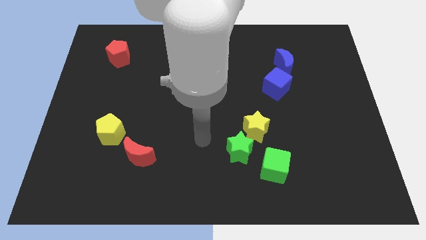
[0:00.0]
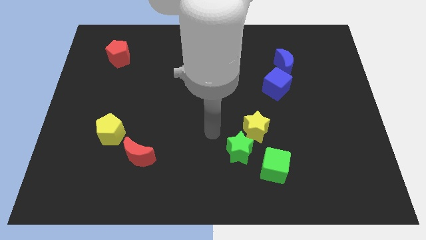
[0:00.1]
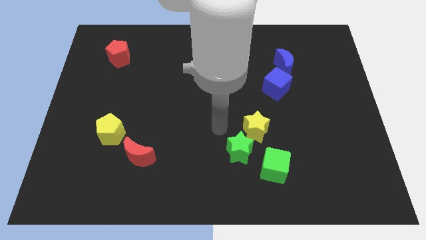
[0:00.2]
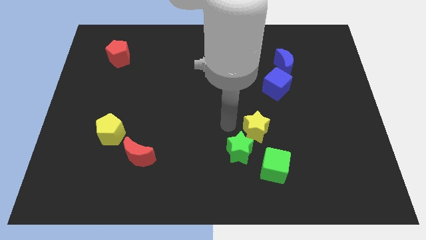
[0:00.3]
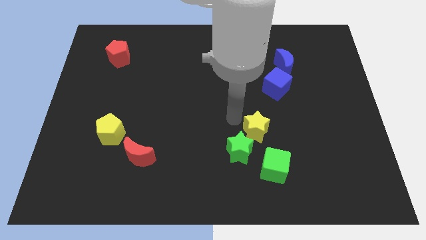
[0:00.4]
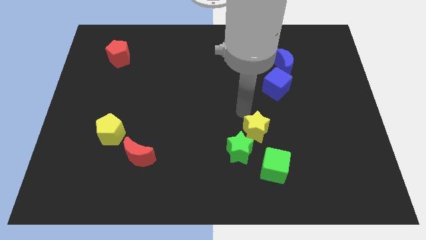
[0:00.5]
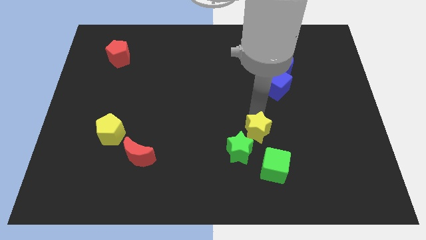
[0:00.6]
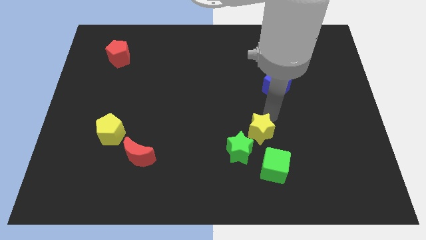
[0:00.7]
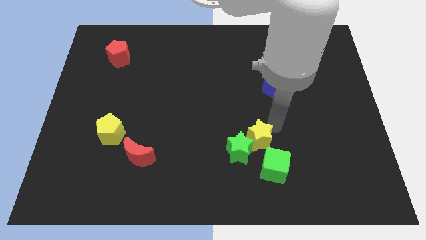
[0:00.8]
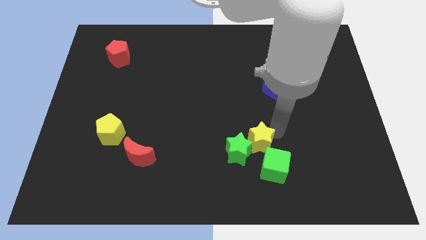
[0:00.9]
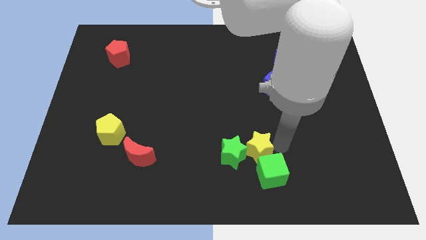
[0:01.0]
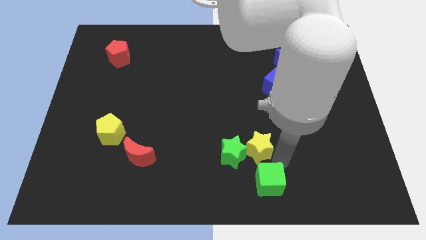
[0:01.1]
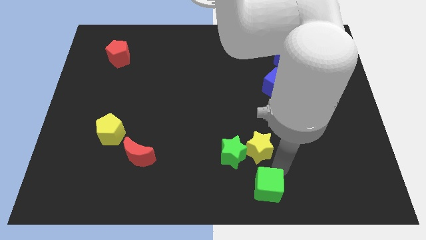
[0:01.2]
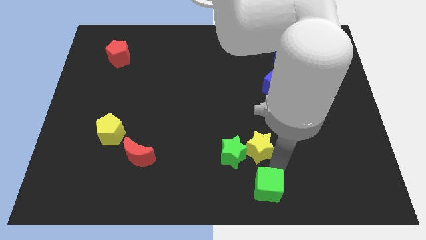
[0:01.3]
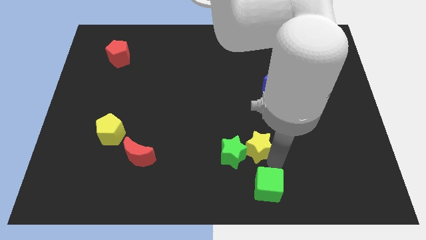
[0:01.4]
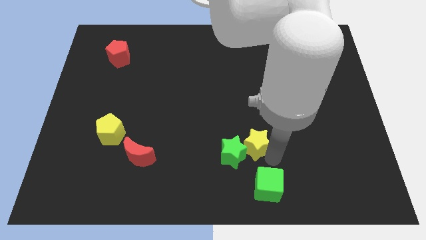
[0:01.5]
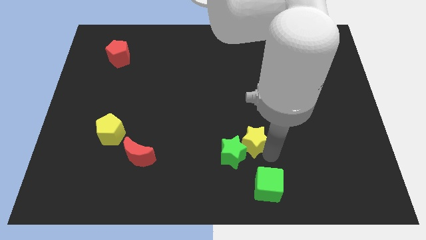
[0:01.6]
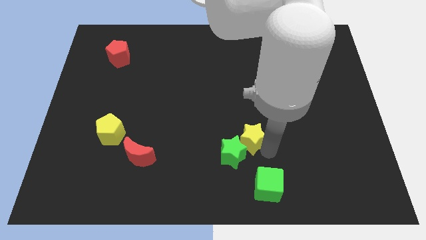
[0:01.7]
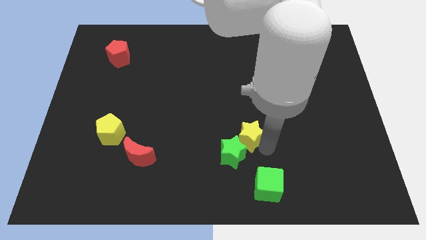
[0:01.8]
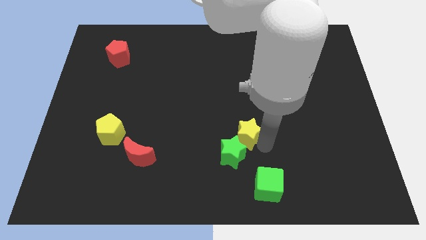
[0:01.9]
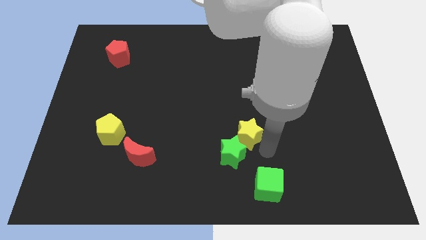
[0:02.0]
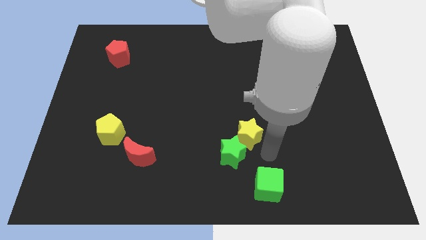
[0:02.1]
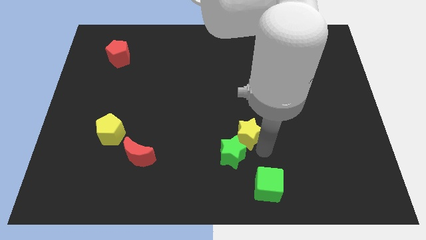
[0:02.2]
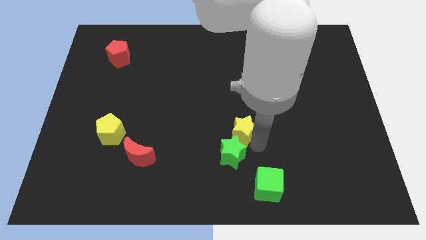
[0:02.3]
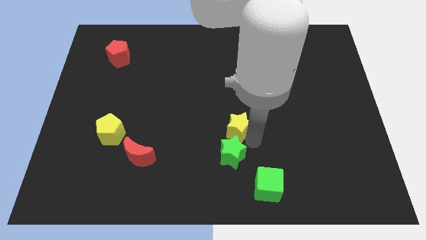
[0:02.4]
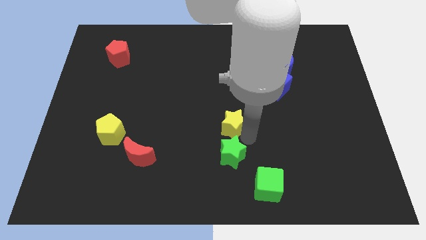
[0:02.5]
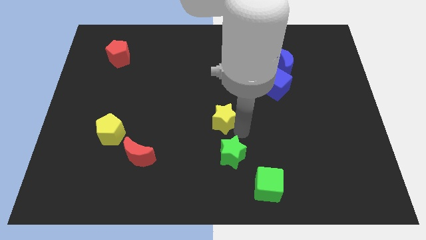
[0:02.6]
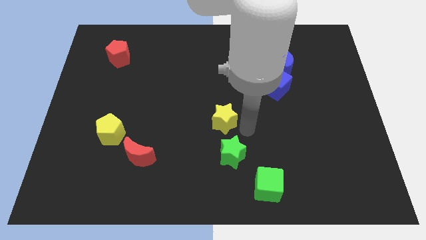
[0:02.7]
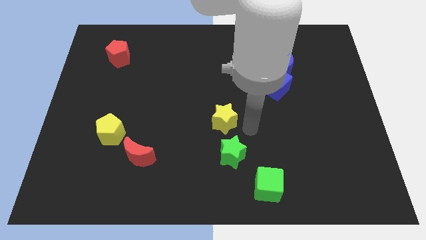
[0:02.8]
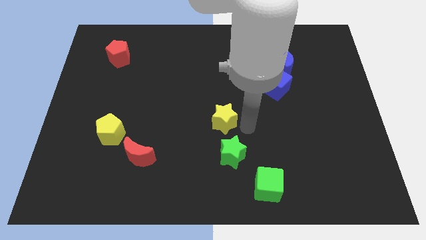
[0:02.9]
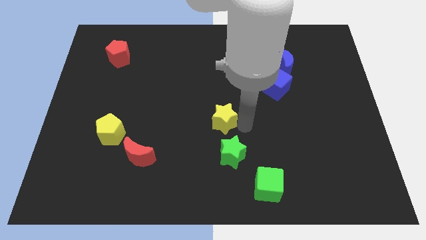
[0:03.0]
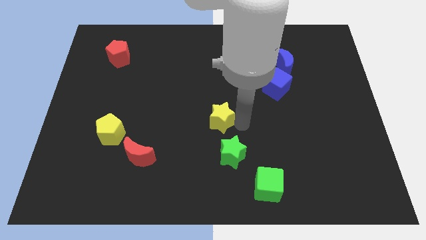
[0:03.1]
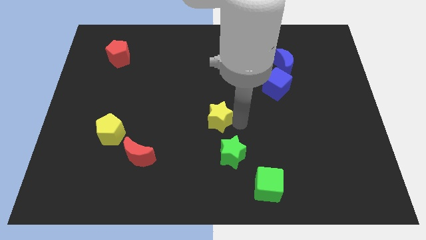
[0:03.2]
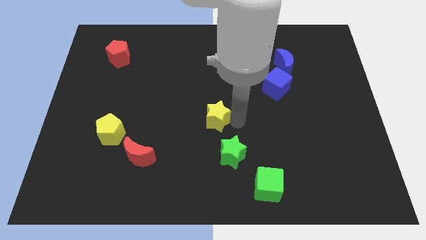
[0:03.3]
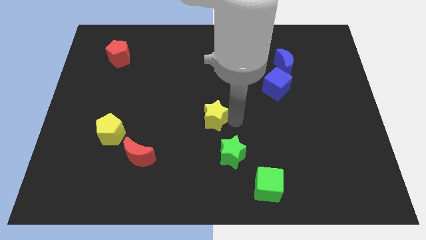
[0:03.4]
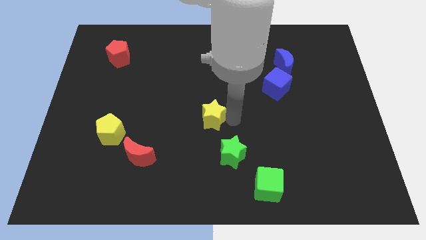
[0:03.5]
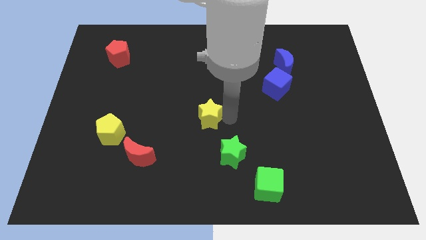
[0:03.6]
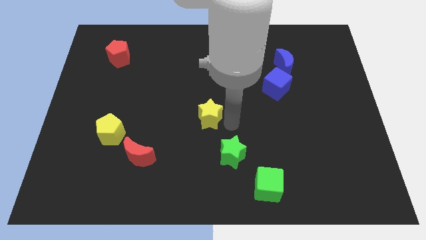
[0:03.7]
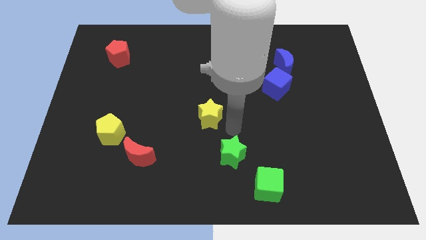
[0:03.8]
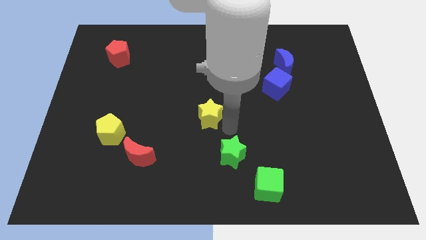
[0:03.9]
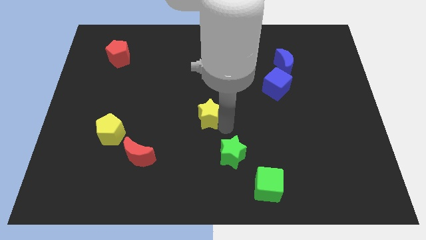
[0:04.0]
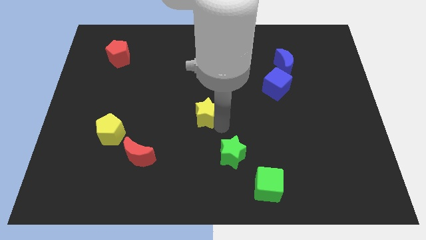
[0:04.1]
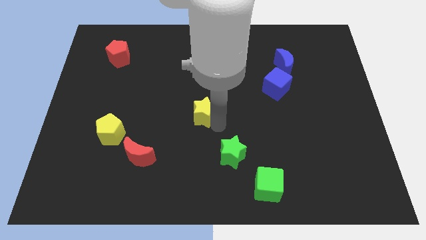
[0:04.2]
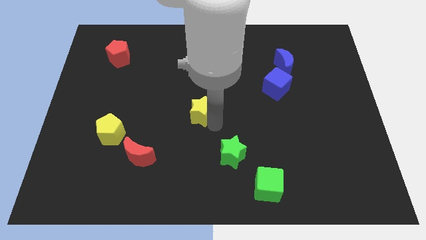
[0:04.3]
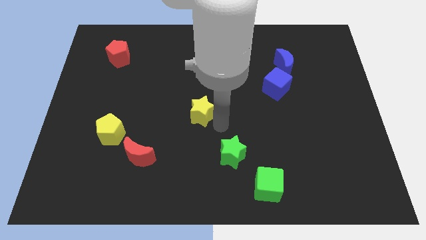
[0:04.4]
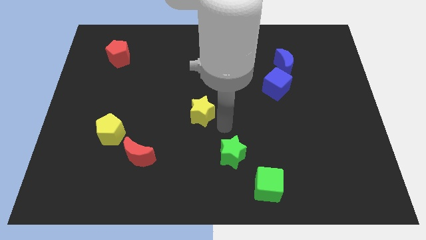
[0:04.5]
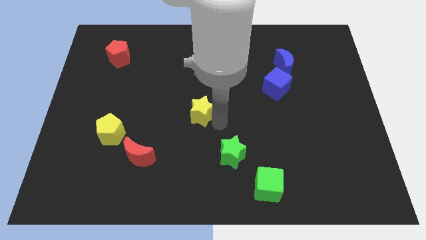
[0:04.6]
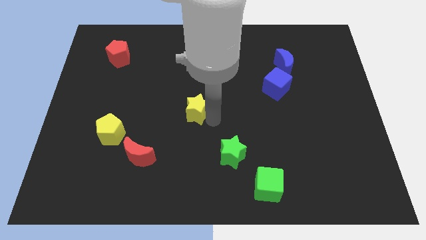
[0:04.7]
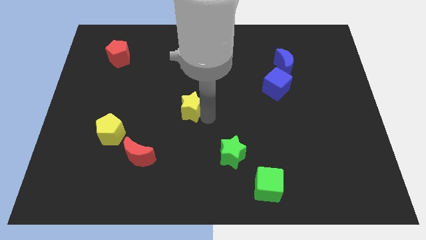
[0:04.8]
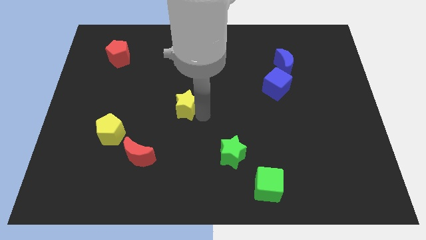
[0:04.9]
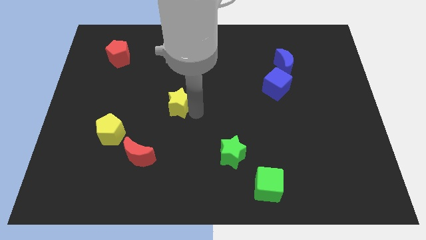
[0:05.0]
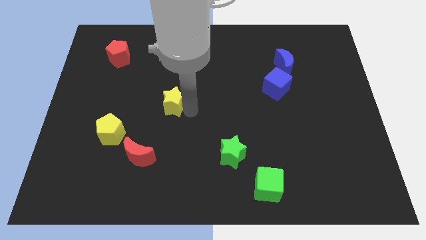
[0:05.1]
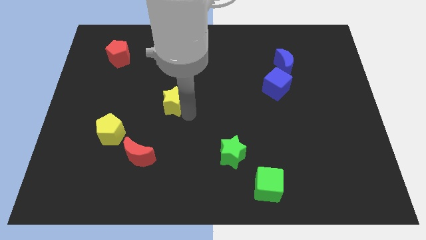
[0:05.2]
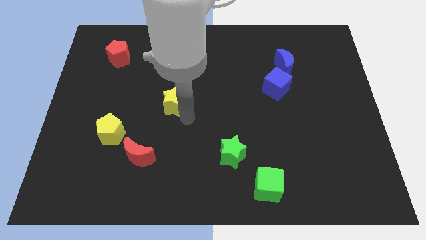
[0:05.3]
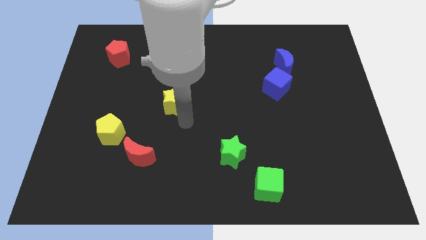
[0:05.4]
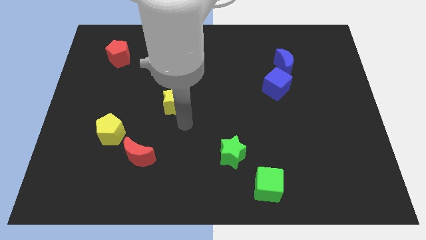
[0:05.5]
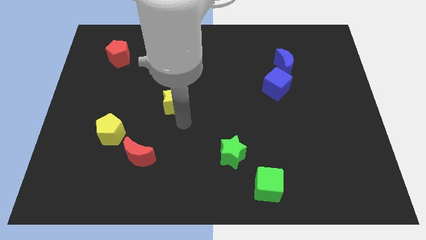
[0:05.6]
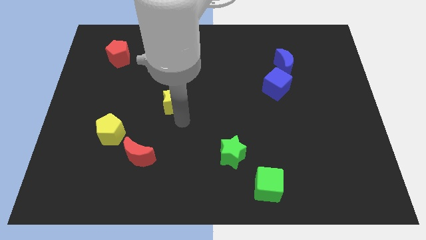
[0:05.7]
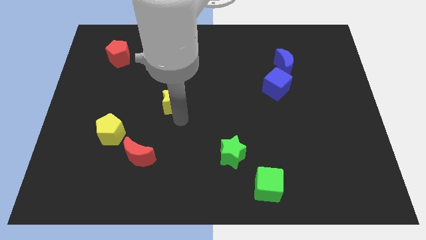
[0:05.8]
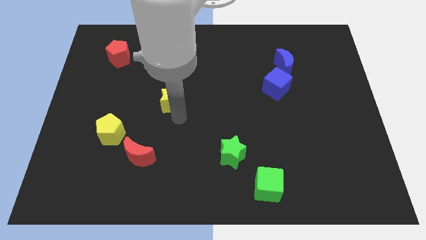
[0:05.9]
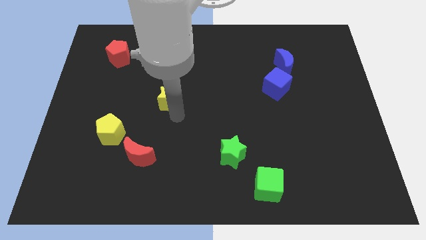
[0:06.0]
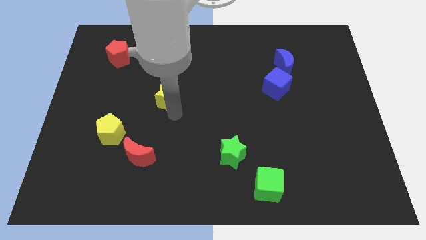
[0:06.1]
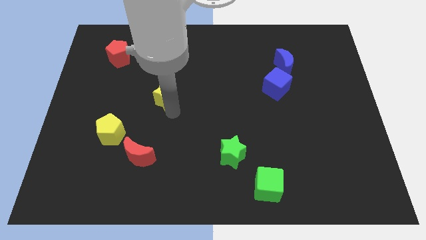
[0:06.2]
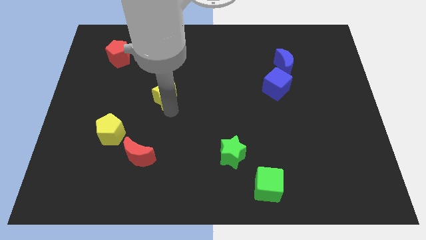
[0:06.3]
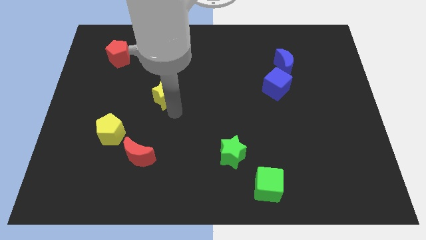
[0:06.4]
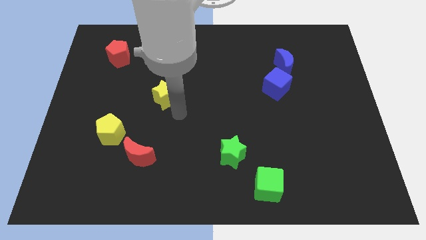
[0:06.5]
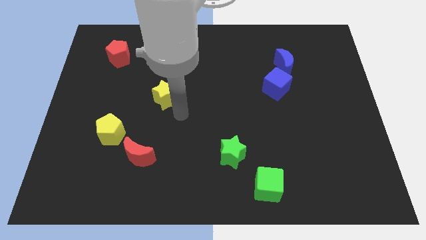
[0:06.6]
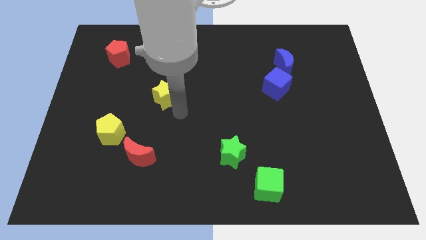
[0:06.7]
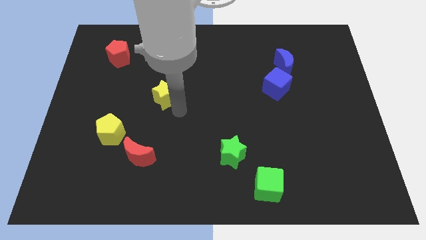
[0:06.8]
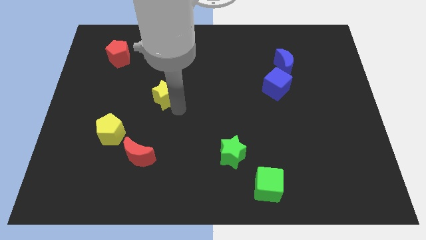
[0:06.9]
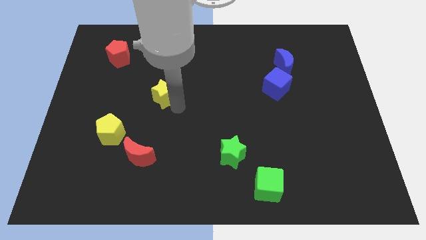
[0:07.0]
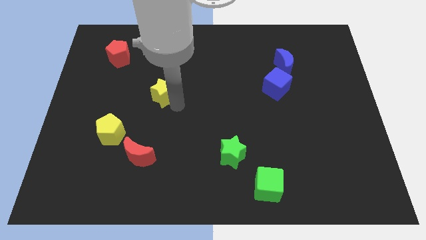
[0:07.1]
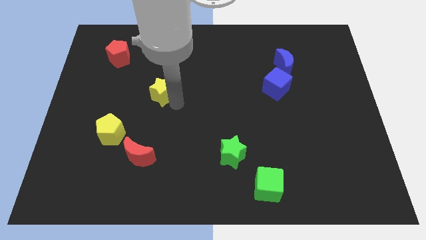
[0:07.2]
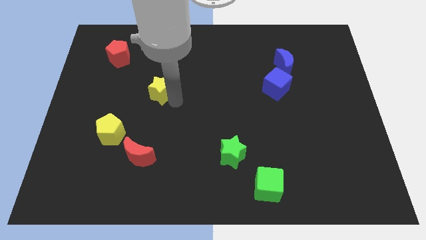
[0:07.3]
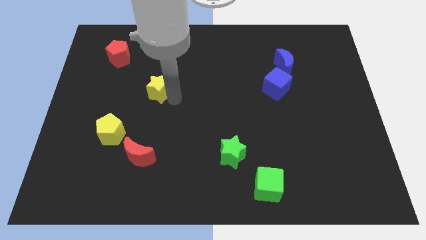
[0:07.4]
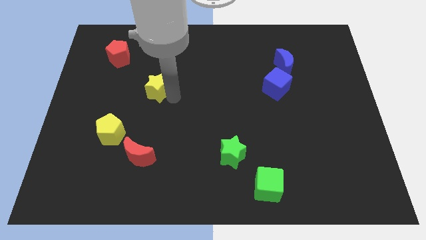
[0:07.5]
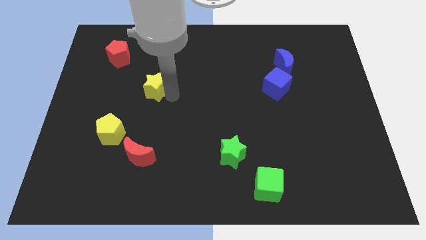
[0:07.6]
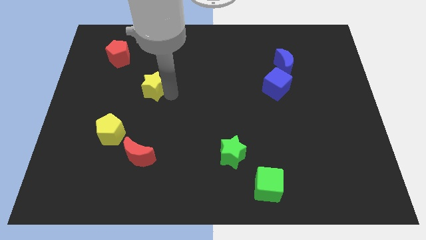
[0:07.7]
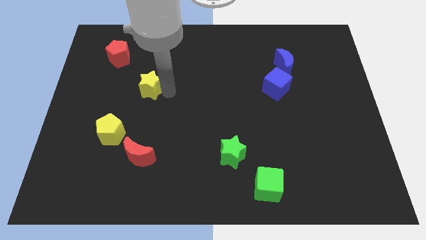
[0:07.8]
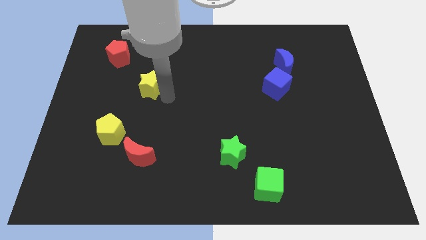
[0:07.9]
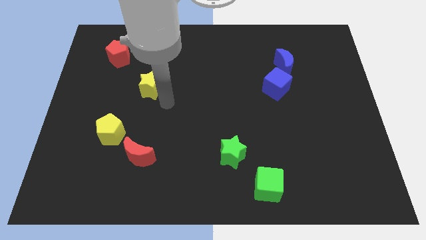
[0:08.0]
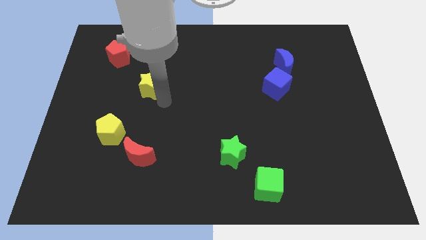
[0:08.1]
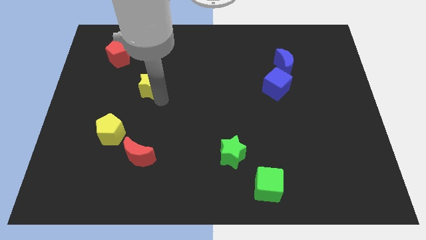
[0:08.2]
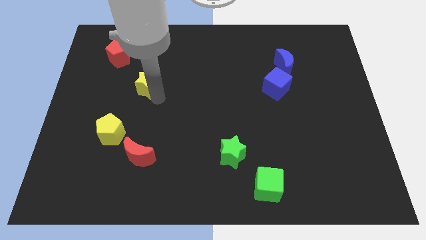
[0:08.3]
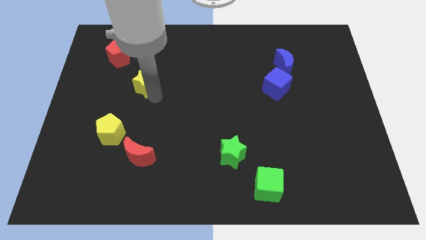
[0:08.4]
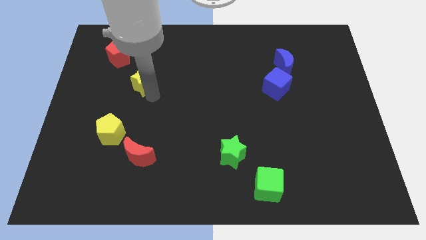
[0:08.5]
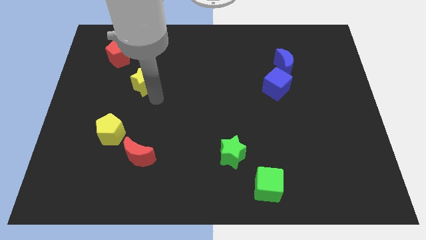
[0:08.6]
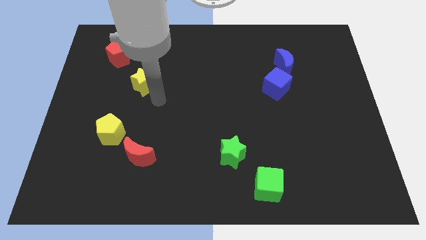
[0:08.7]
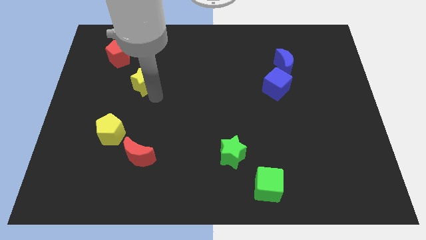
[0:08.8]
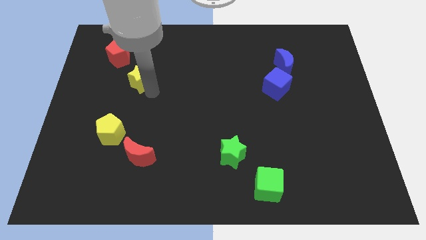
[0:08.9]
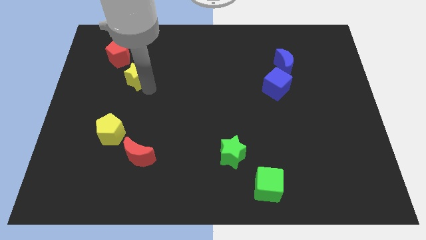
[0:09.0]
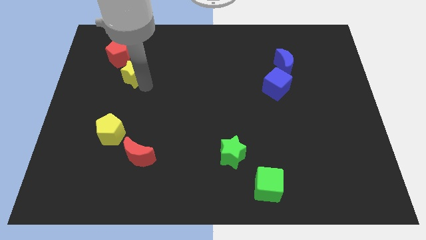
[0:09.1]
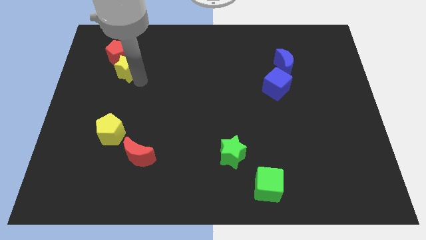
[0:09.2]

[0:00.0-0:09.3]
put the yellow star towards the red pentagon
